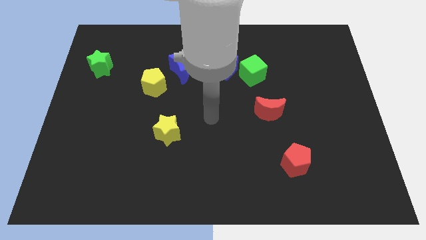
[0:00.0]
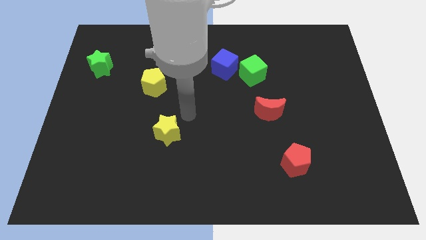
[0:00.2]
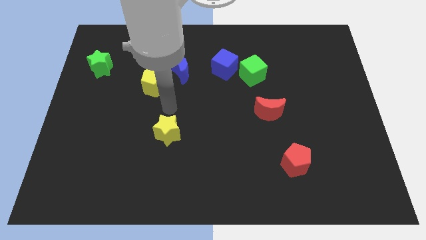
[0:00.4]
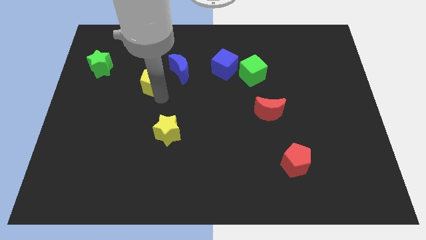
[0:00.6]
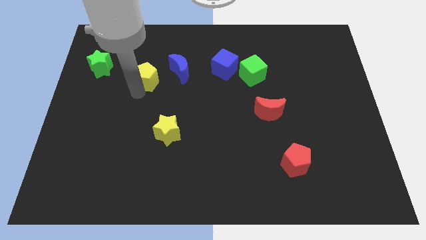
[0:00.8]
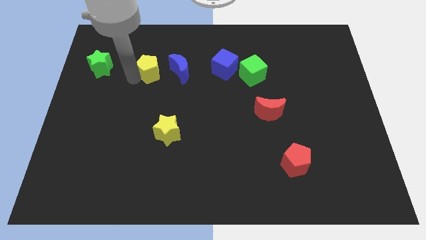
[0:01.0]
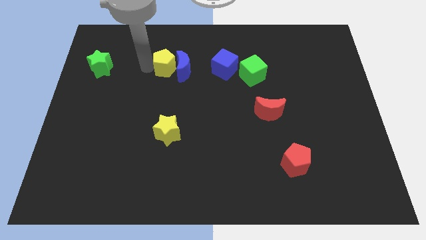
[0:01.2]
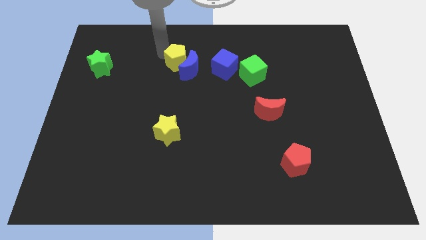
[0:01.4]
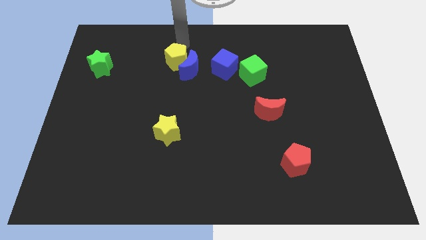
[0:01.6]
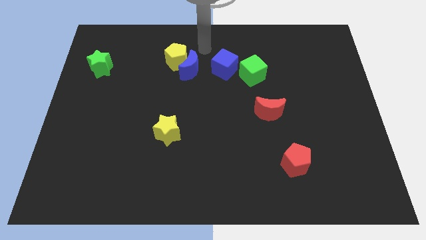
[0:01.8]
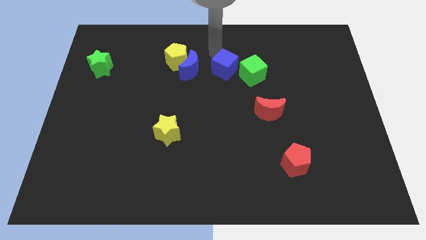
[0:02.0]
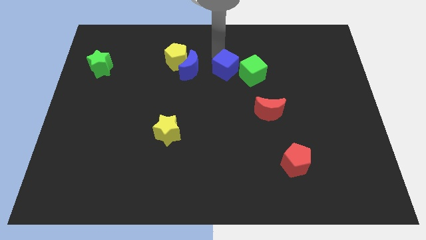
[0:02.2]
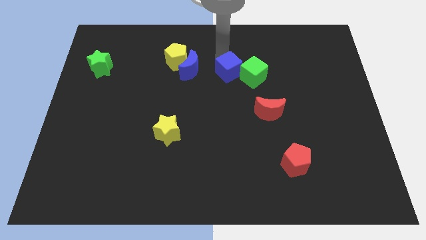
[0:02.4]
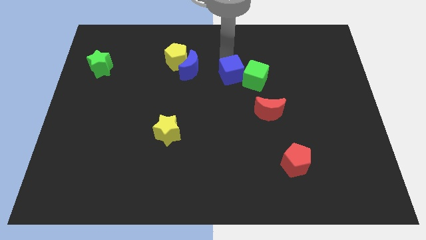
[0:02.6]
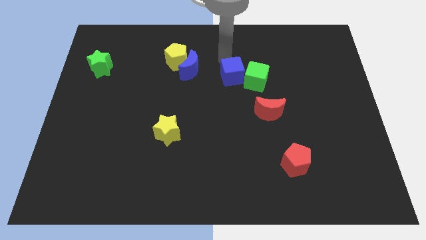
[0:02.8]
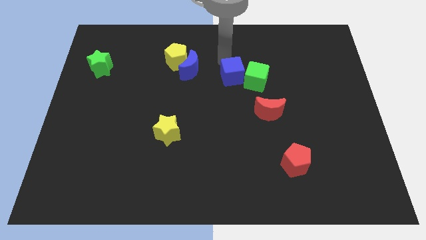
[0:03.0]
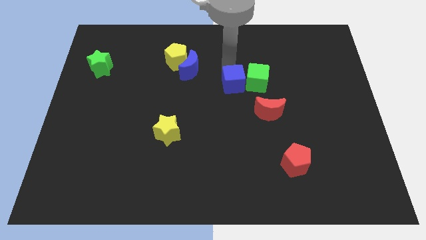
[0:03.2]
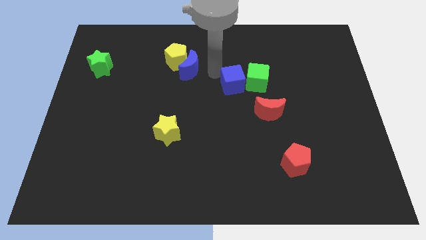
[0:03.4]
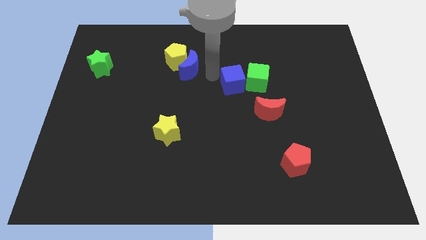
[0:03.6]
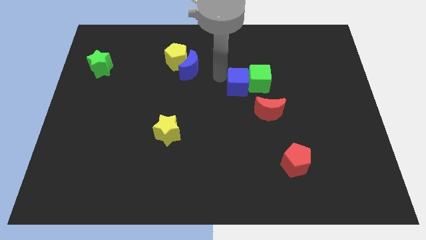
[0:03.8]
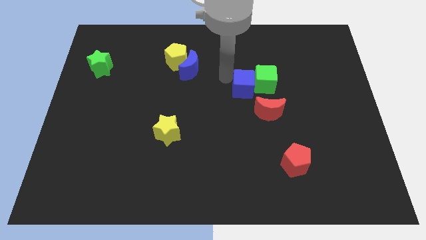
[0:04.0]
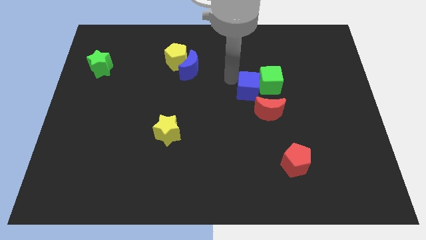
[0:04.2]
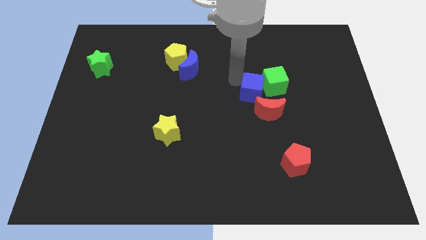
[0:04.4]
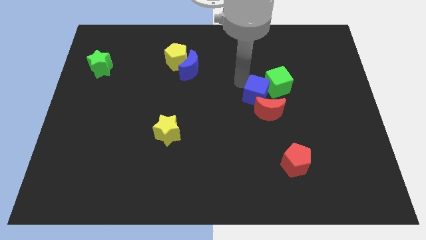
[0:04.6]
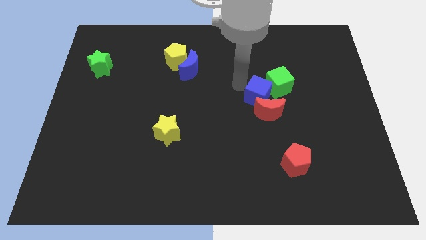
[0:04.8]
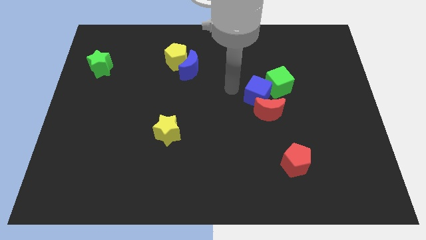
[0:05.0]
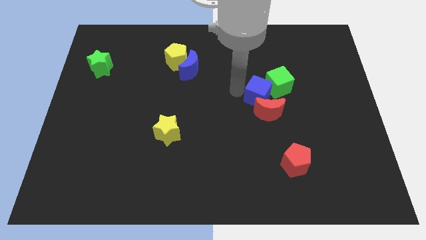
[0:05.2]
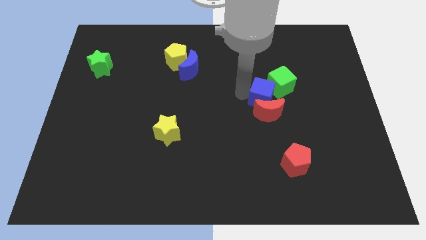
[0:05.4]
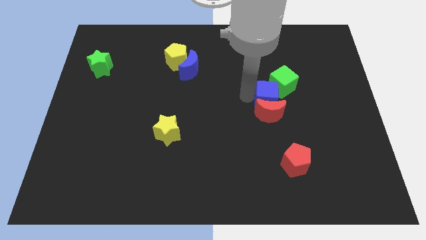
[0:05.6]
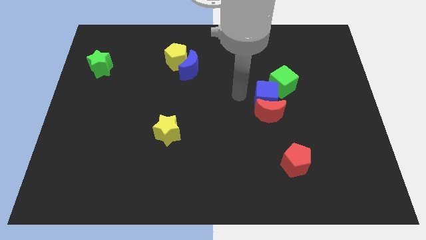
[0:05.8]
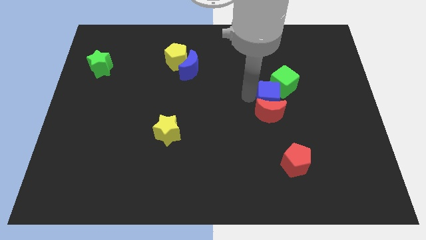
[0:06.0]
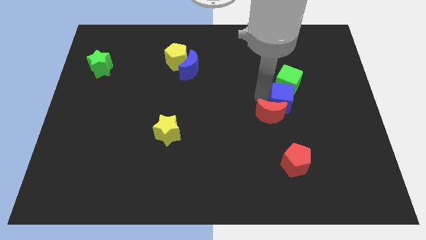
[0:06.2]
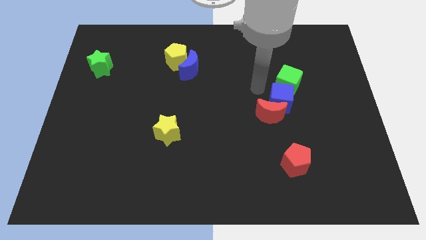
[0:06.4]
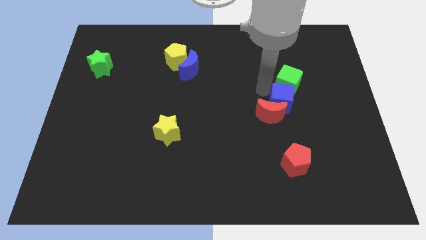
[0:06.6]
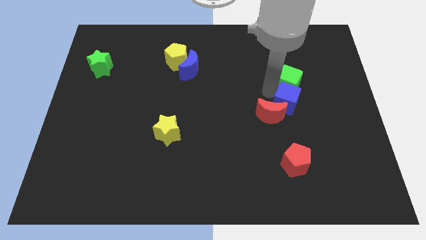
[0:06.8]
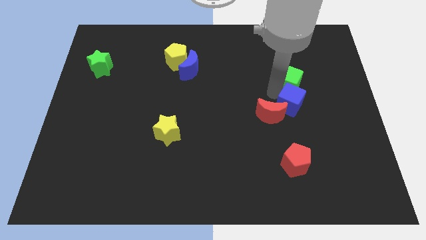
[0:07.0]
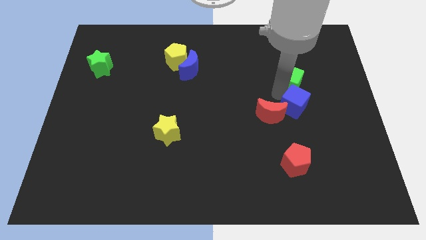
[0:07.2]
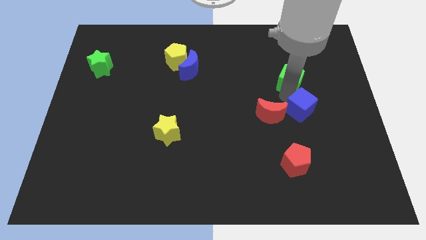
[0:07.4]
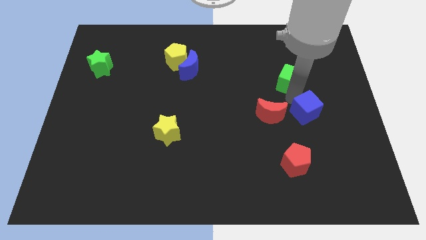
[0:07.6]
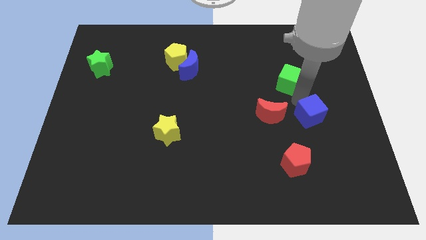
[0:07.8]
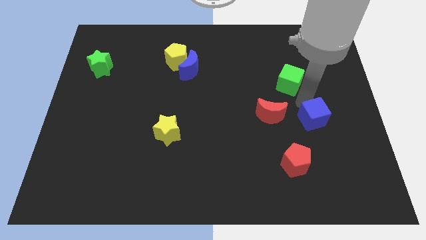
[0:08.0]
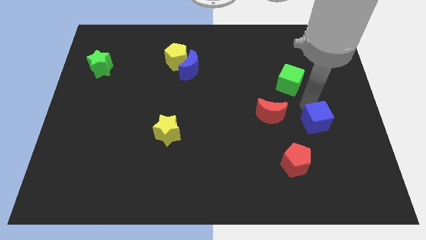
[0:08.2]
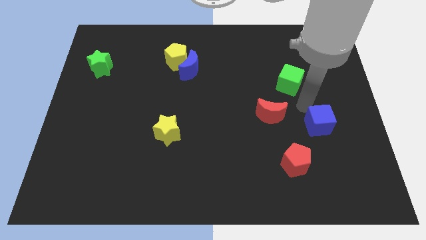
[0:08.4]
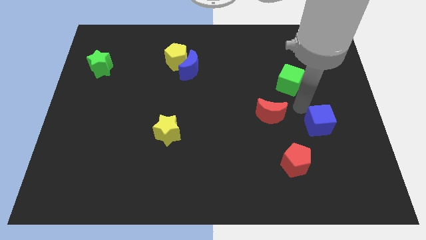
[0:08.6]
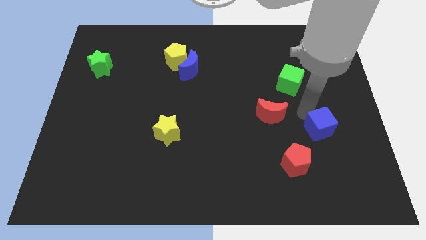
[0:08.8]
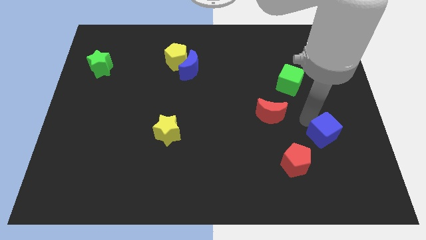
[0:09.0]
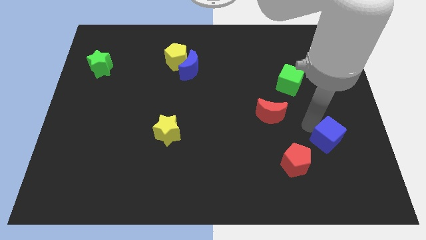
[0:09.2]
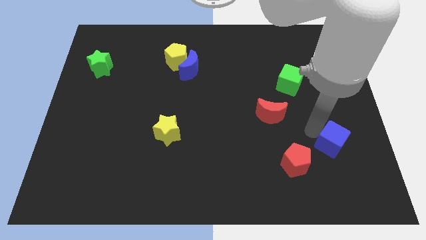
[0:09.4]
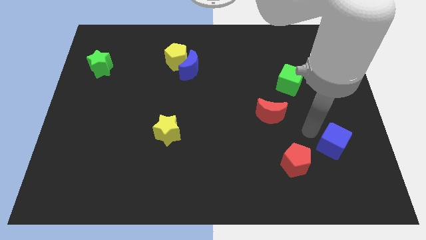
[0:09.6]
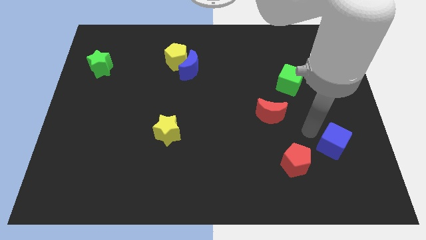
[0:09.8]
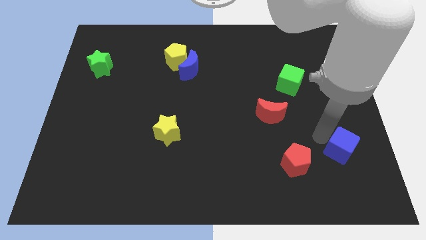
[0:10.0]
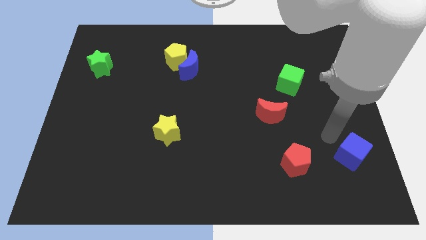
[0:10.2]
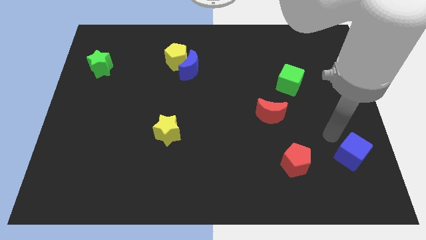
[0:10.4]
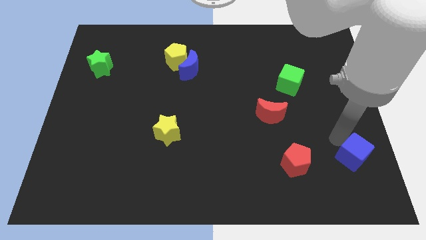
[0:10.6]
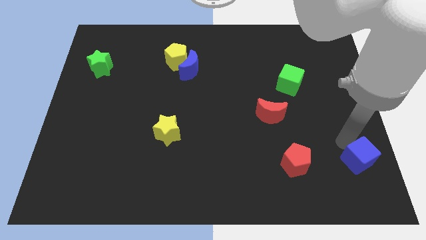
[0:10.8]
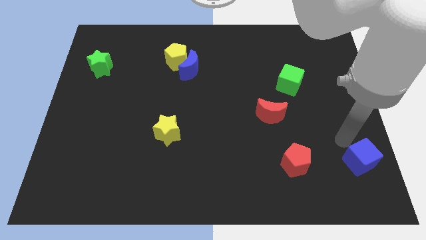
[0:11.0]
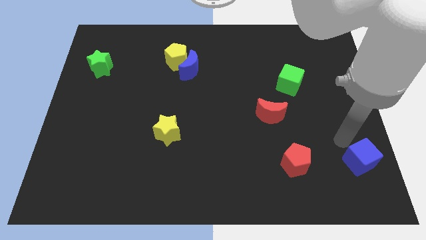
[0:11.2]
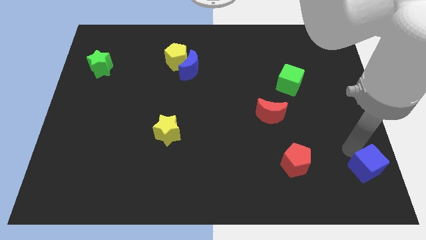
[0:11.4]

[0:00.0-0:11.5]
slide the blue cube to the lower right corner

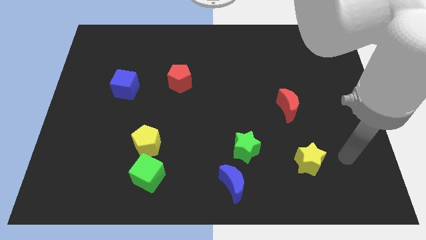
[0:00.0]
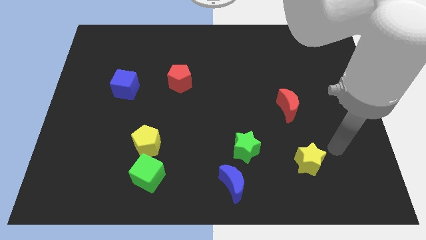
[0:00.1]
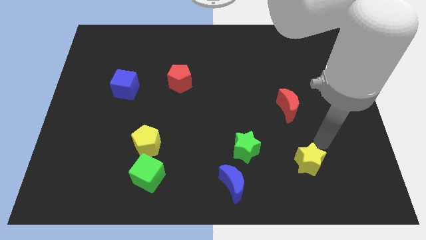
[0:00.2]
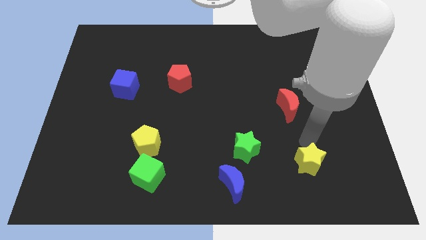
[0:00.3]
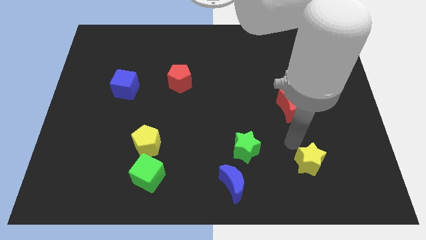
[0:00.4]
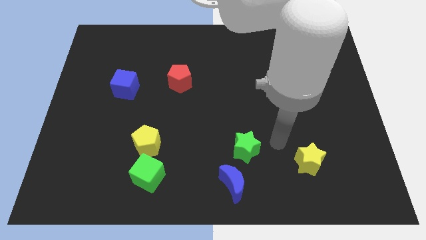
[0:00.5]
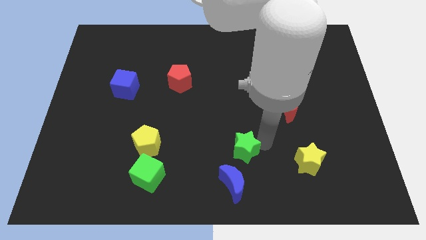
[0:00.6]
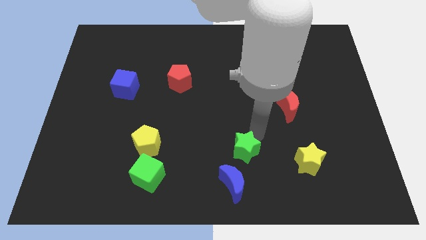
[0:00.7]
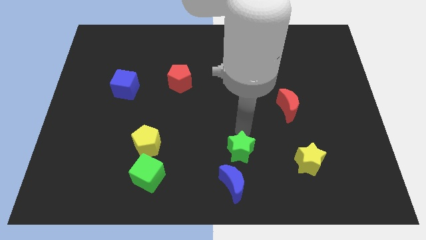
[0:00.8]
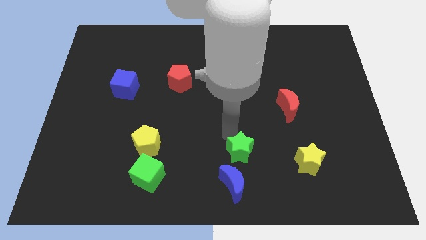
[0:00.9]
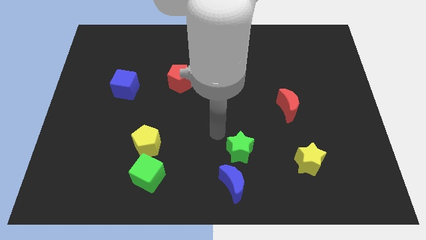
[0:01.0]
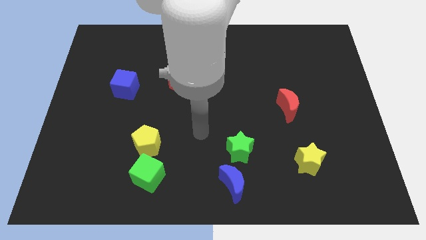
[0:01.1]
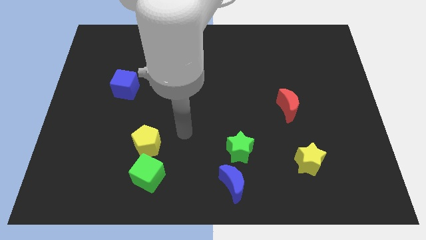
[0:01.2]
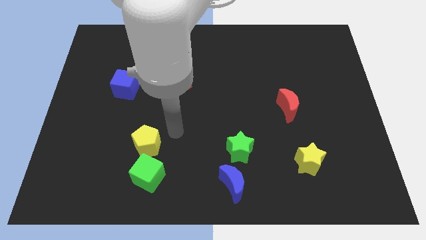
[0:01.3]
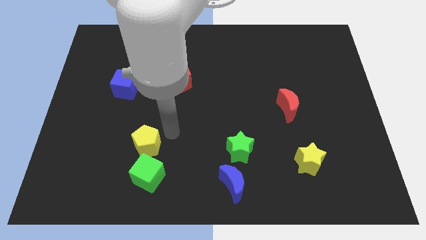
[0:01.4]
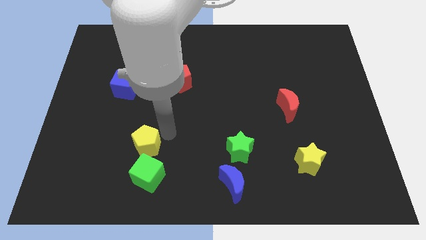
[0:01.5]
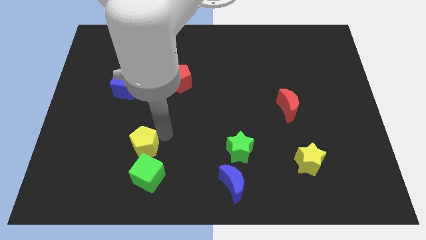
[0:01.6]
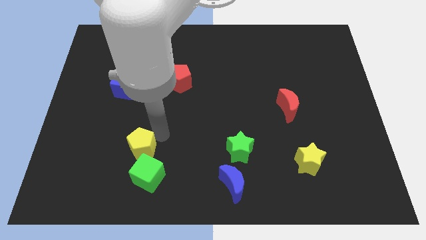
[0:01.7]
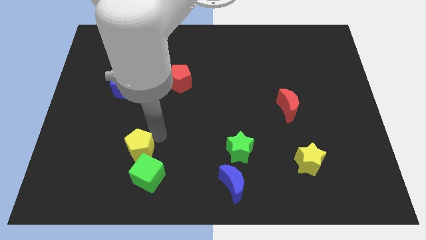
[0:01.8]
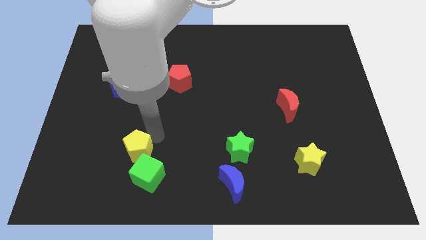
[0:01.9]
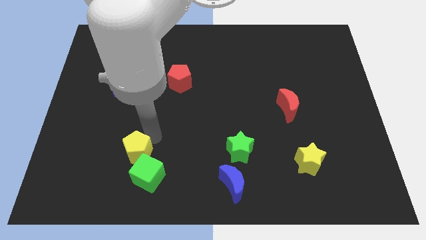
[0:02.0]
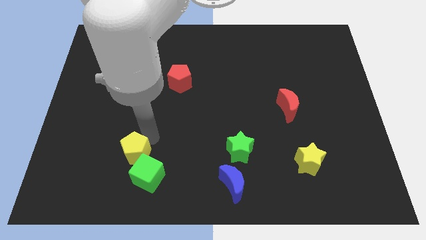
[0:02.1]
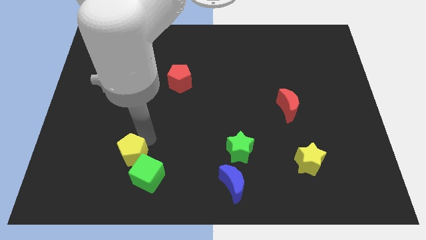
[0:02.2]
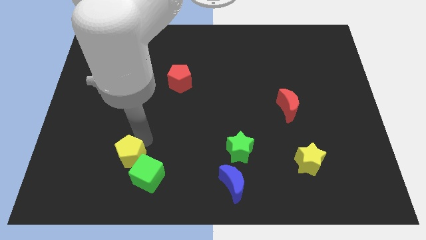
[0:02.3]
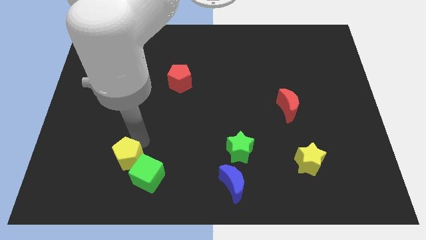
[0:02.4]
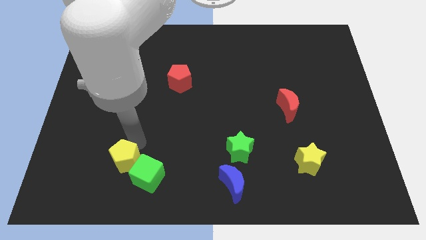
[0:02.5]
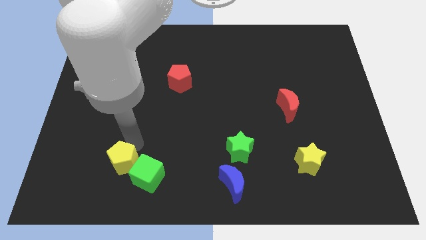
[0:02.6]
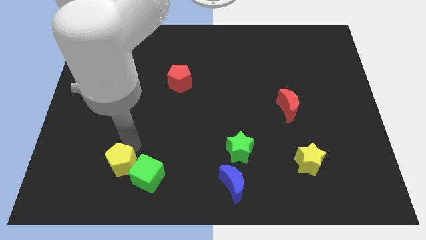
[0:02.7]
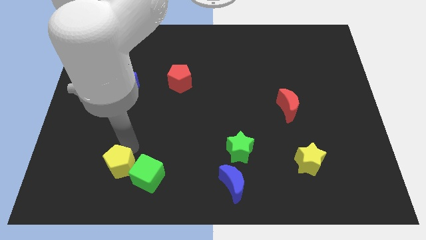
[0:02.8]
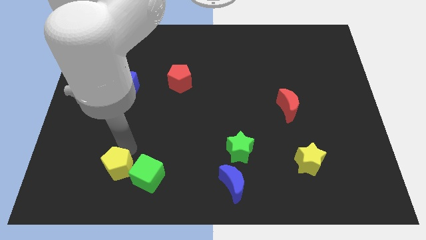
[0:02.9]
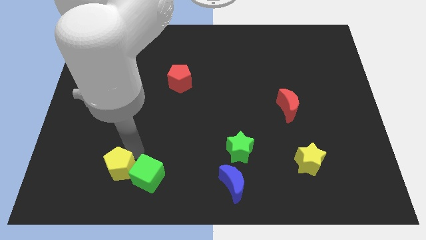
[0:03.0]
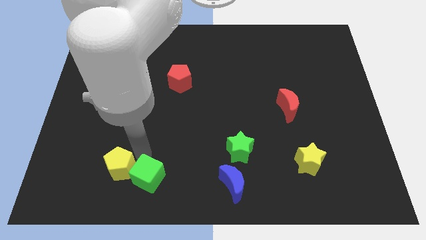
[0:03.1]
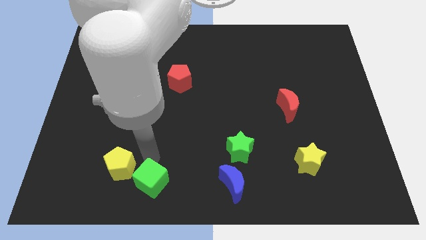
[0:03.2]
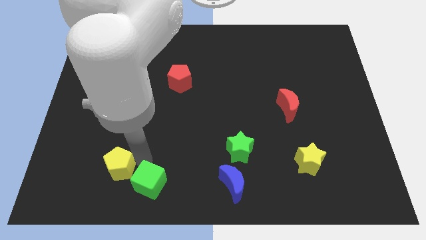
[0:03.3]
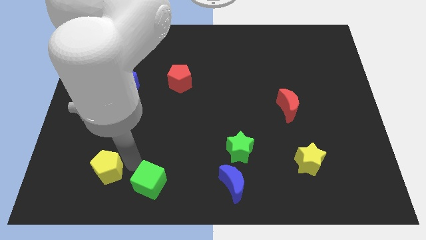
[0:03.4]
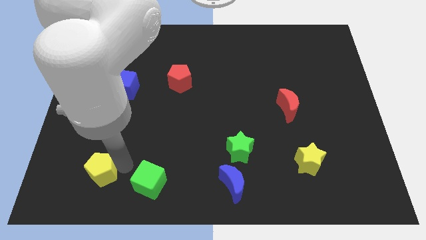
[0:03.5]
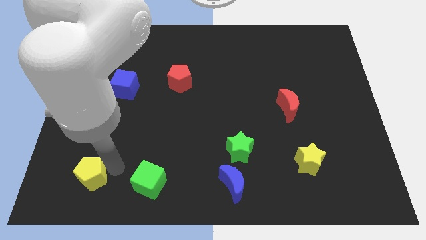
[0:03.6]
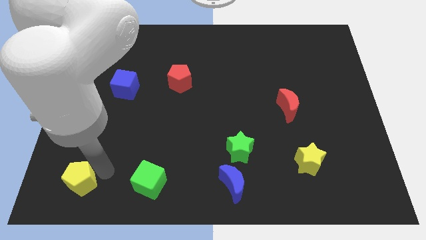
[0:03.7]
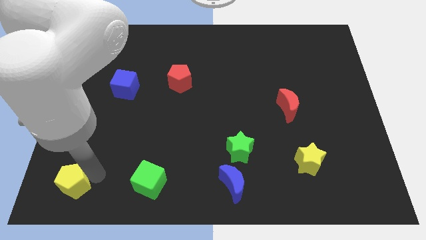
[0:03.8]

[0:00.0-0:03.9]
slide the yellow pentagon to the bottom left of the board
